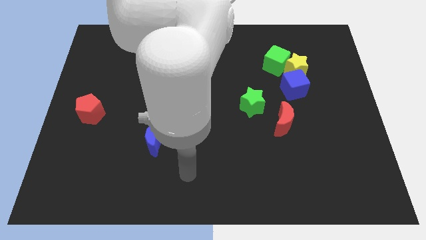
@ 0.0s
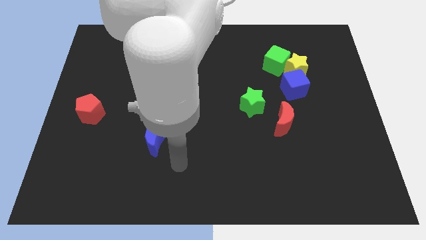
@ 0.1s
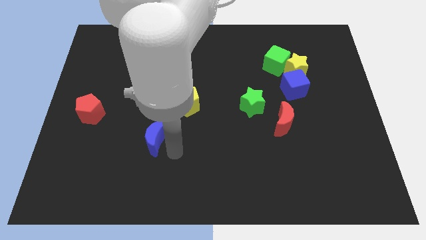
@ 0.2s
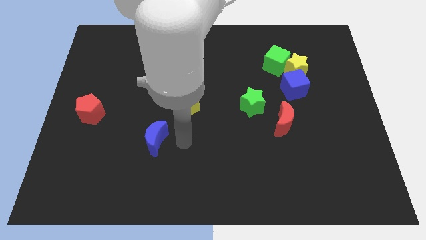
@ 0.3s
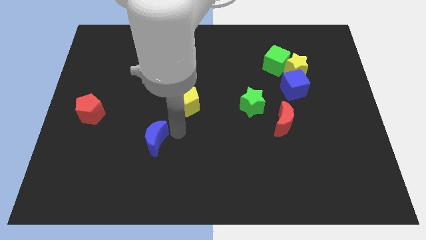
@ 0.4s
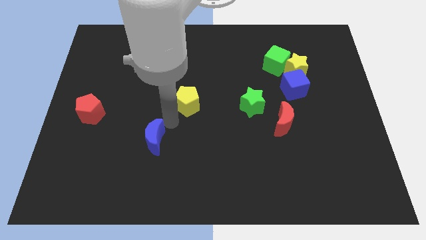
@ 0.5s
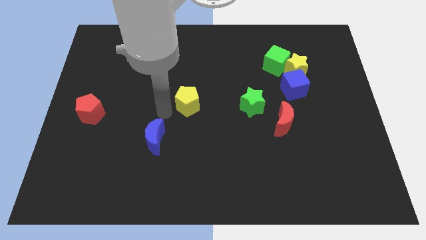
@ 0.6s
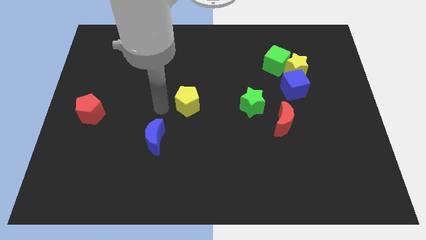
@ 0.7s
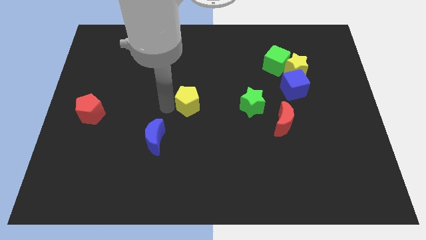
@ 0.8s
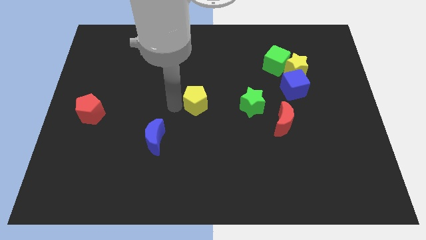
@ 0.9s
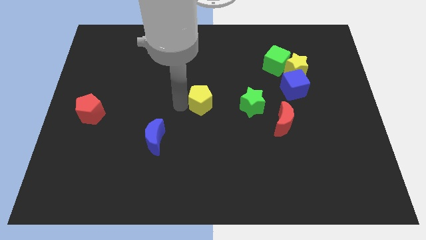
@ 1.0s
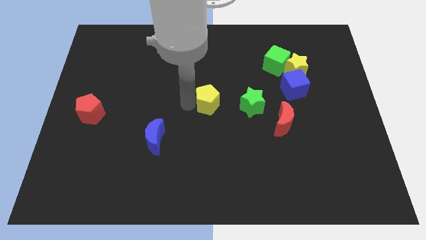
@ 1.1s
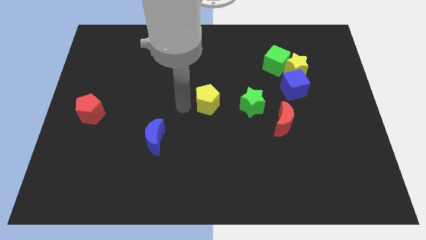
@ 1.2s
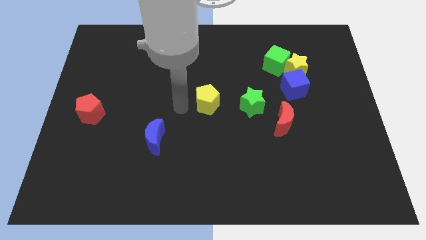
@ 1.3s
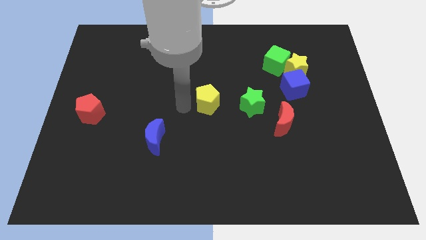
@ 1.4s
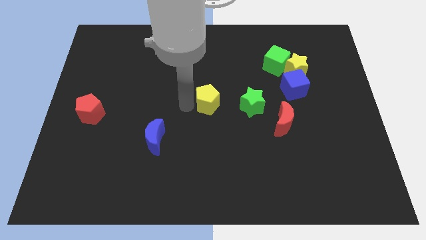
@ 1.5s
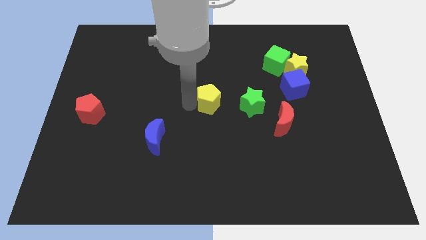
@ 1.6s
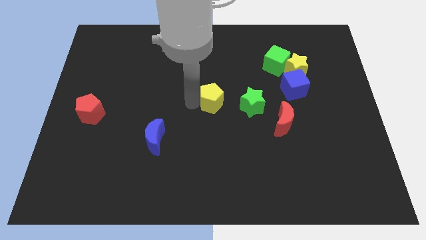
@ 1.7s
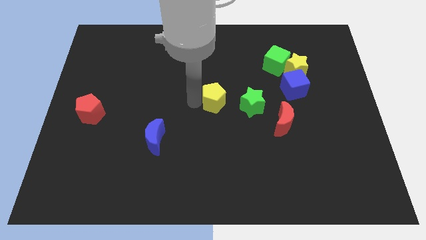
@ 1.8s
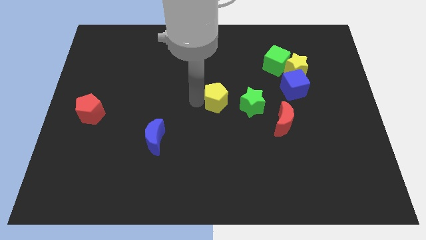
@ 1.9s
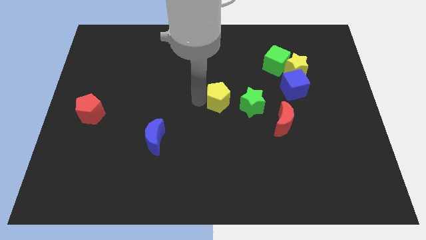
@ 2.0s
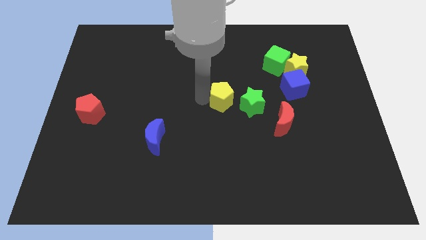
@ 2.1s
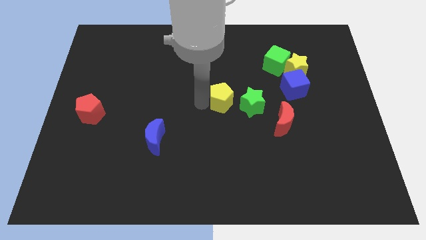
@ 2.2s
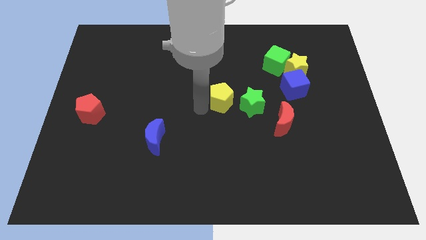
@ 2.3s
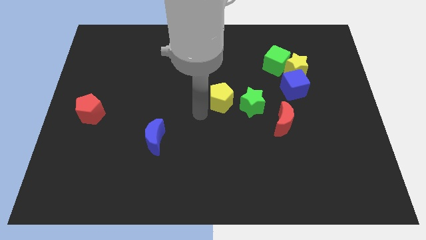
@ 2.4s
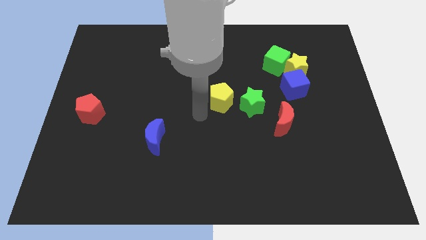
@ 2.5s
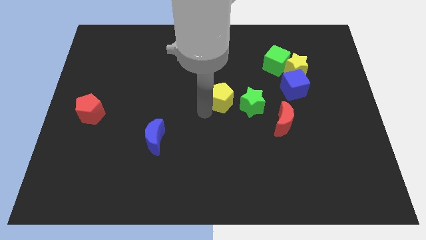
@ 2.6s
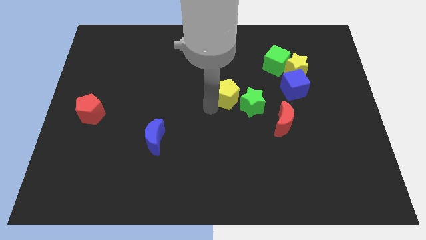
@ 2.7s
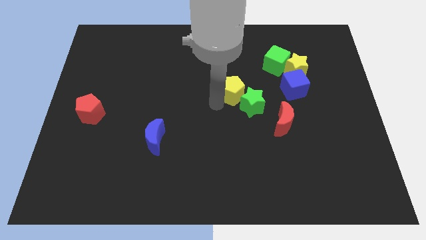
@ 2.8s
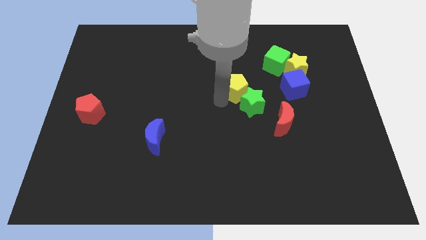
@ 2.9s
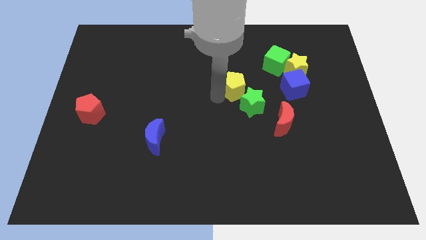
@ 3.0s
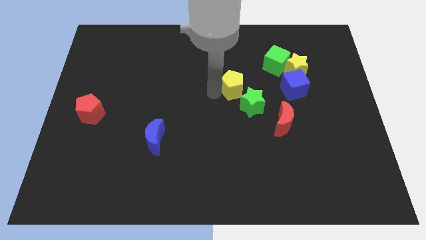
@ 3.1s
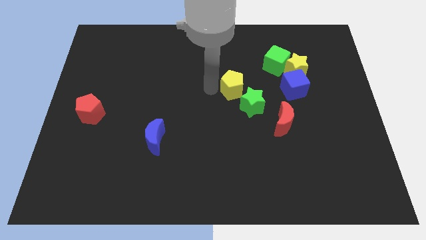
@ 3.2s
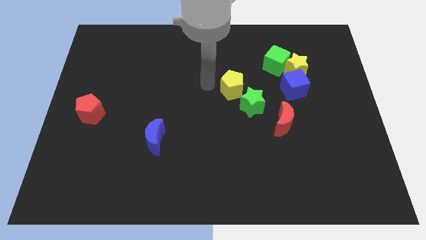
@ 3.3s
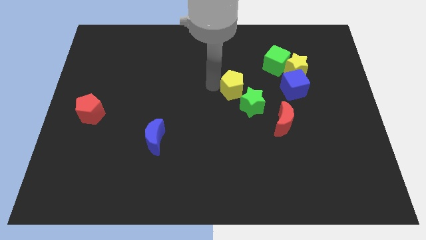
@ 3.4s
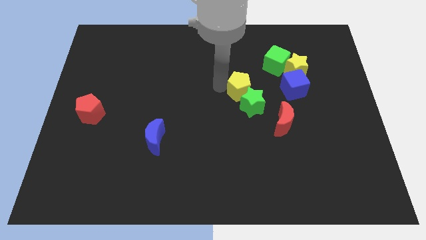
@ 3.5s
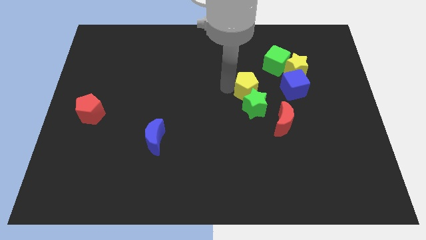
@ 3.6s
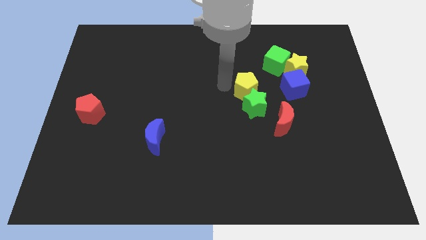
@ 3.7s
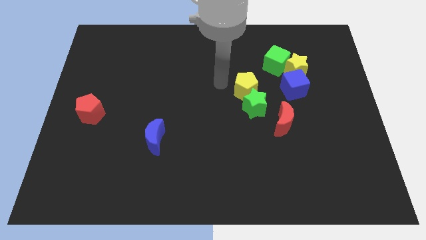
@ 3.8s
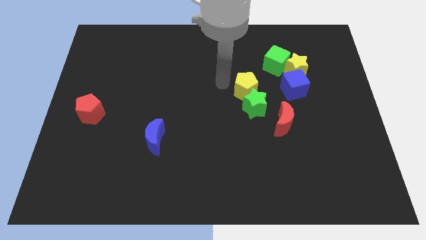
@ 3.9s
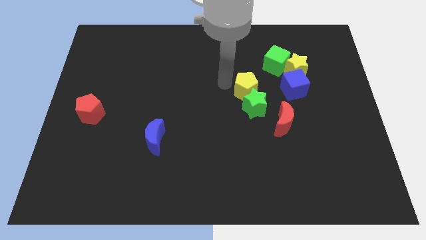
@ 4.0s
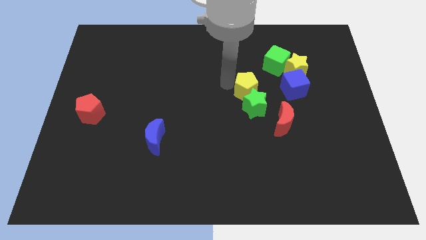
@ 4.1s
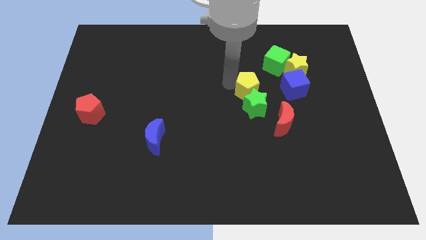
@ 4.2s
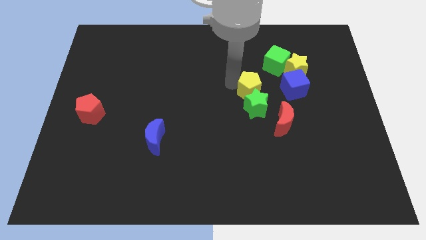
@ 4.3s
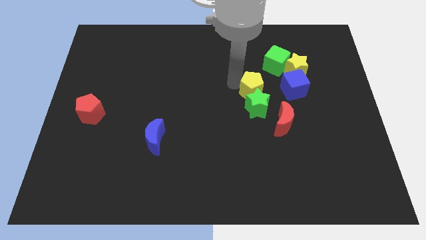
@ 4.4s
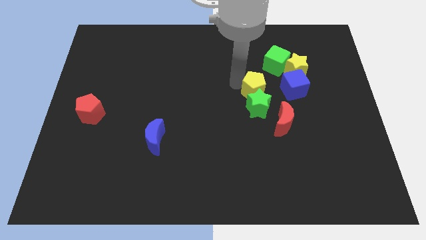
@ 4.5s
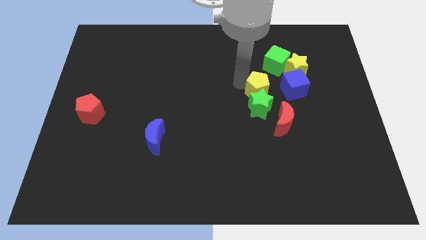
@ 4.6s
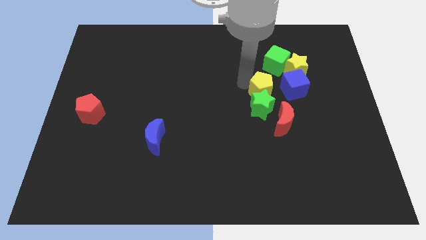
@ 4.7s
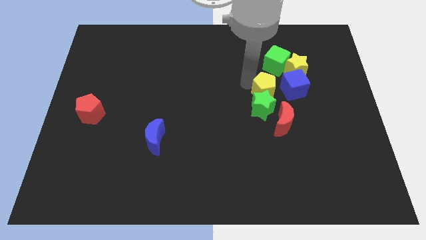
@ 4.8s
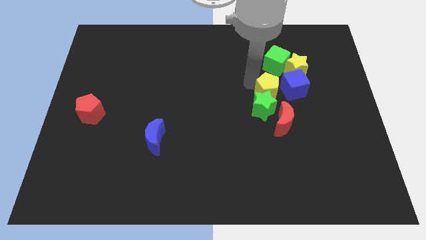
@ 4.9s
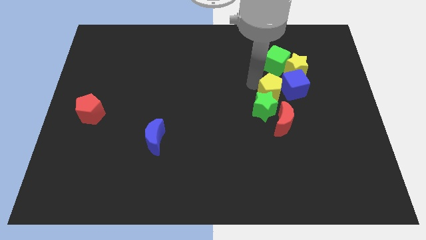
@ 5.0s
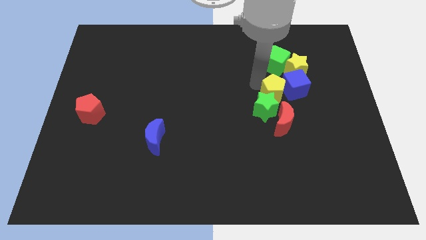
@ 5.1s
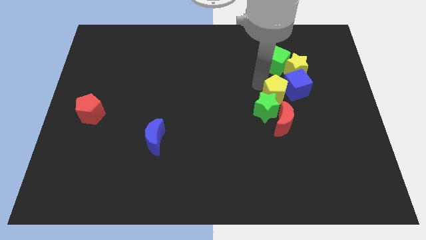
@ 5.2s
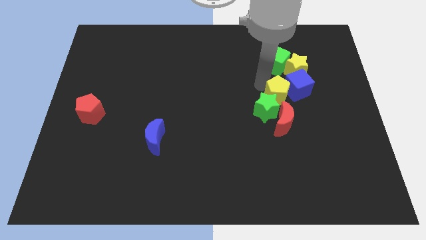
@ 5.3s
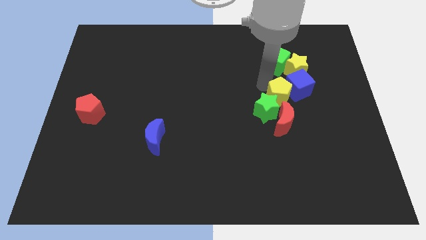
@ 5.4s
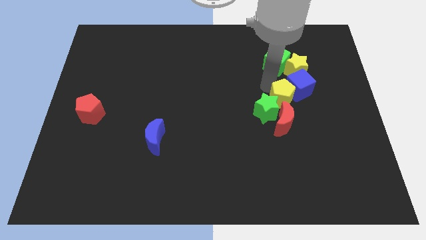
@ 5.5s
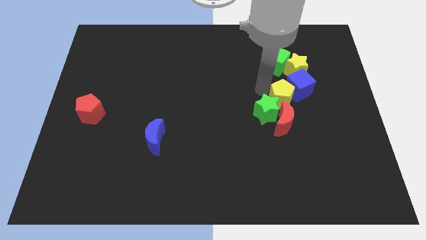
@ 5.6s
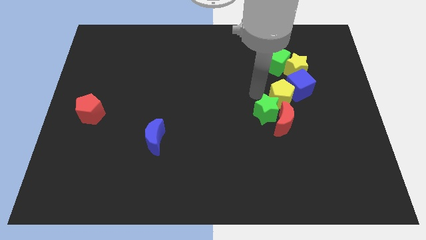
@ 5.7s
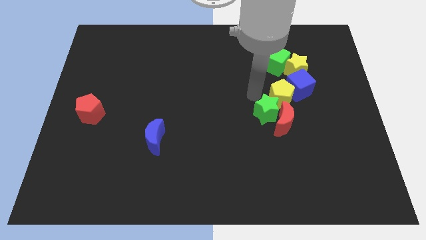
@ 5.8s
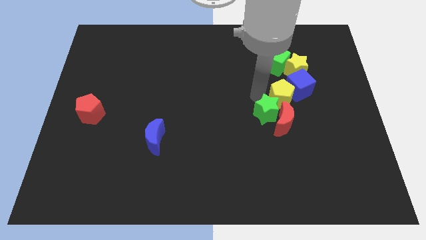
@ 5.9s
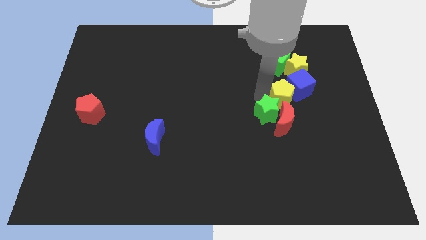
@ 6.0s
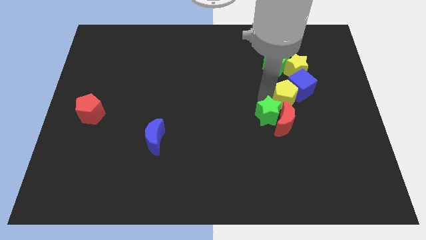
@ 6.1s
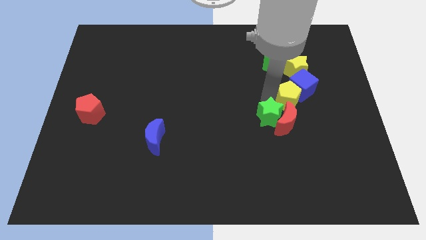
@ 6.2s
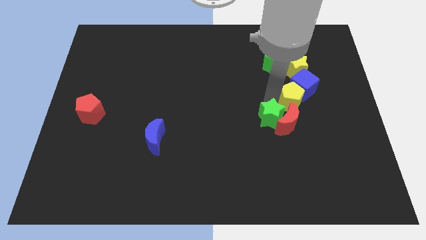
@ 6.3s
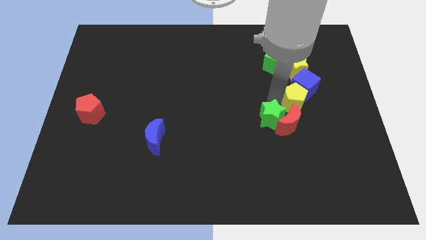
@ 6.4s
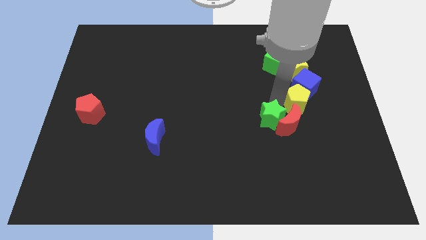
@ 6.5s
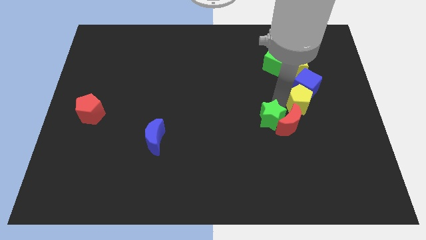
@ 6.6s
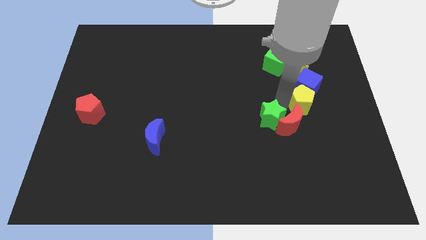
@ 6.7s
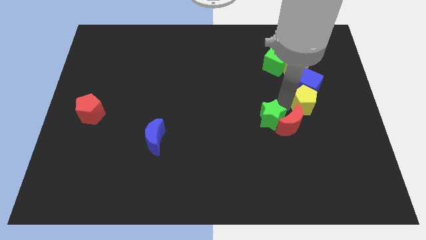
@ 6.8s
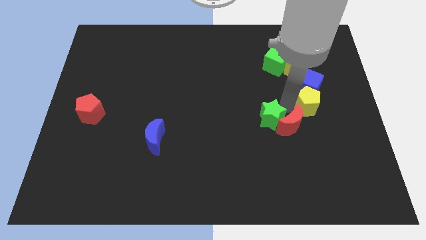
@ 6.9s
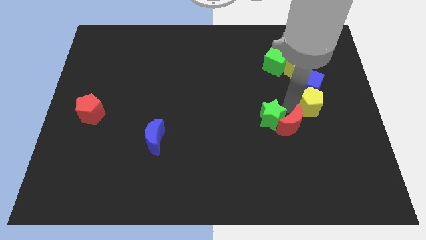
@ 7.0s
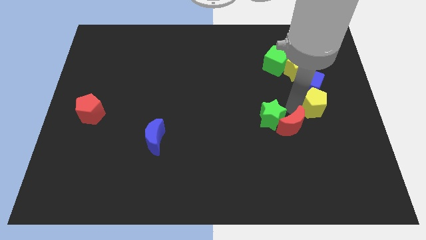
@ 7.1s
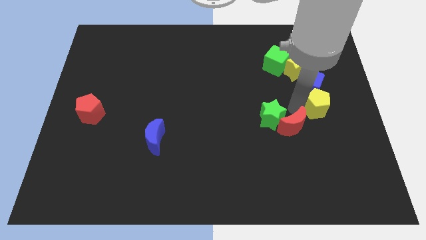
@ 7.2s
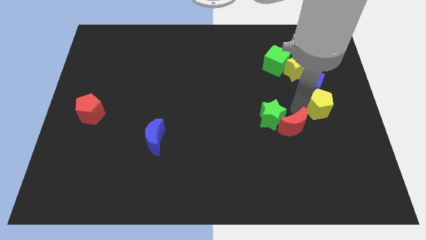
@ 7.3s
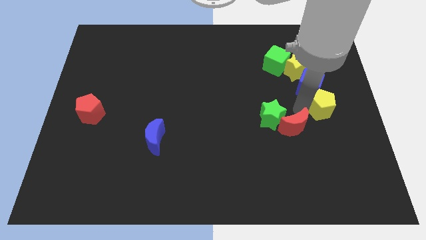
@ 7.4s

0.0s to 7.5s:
move the yellow pentagon to the right side of the board
